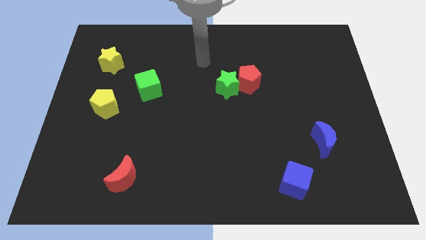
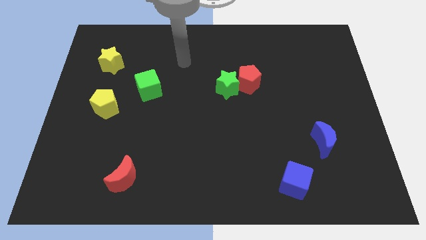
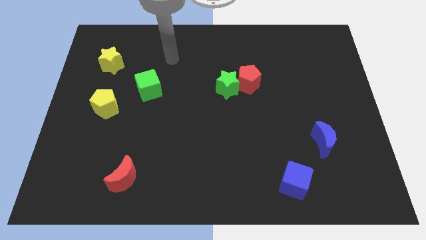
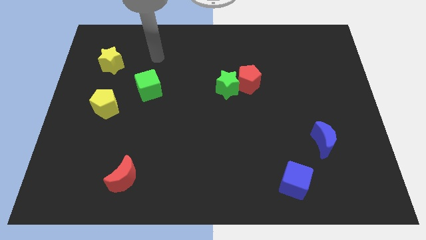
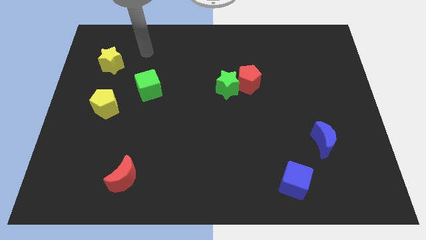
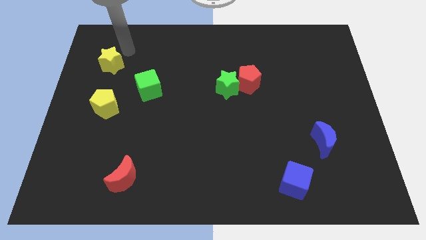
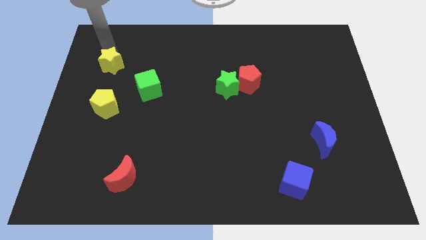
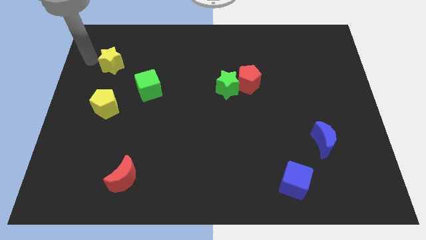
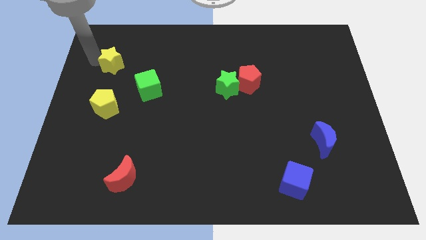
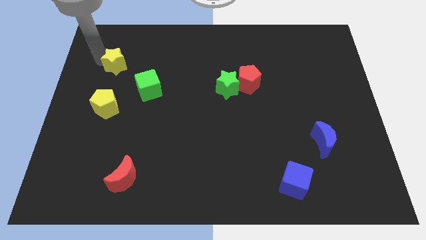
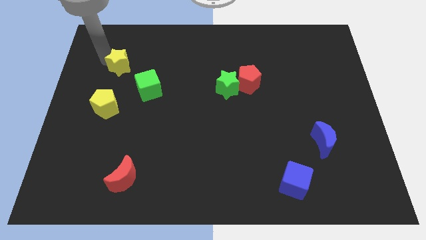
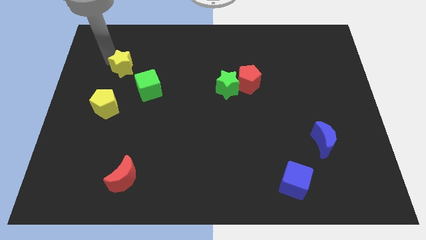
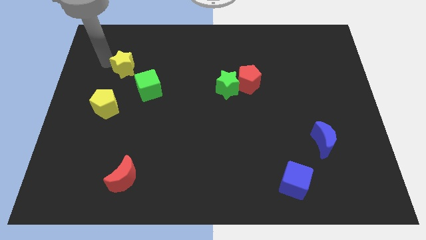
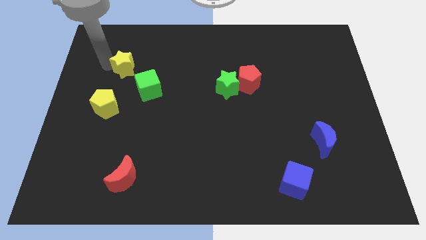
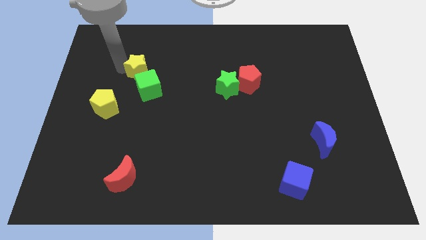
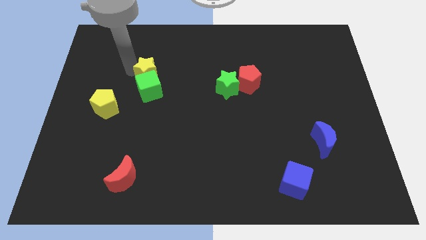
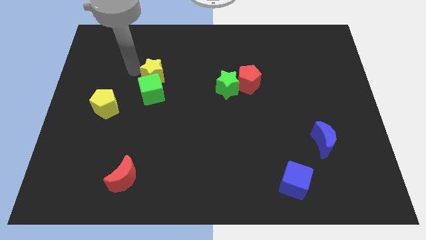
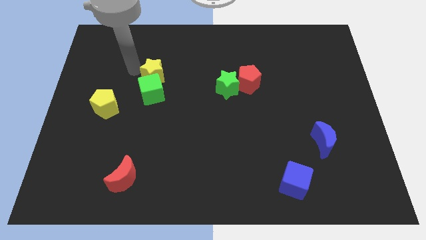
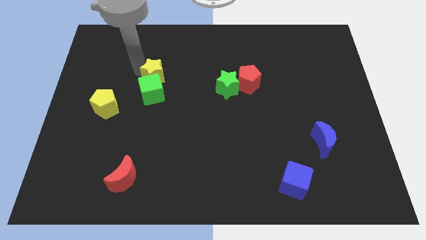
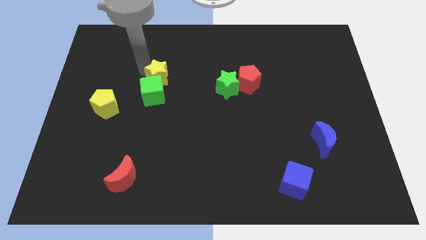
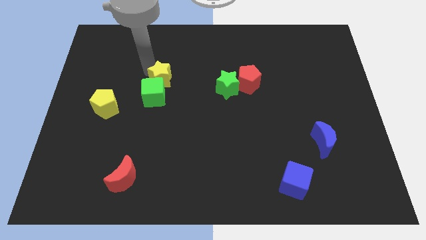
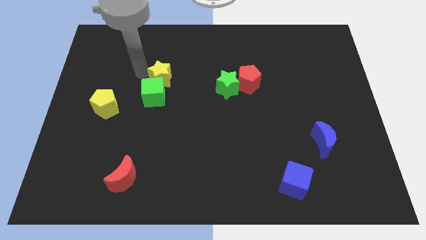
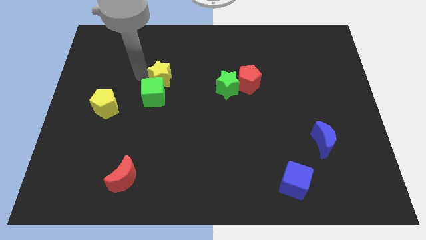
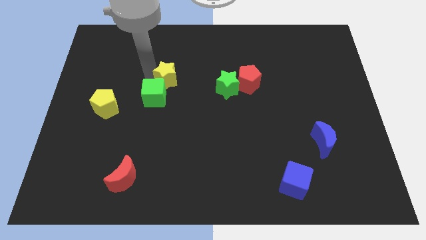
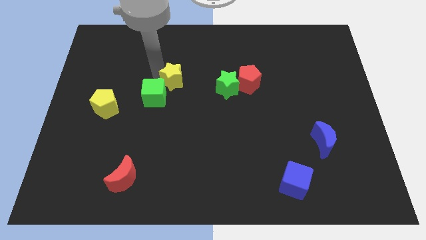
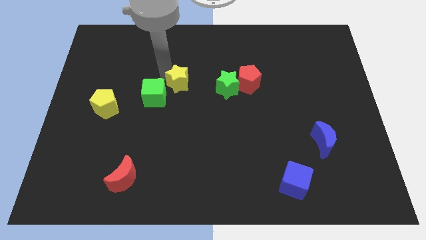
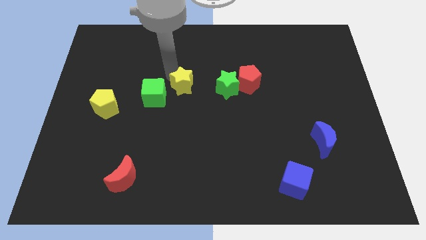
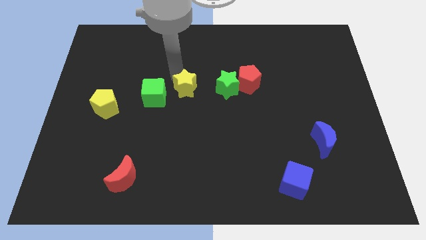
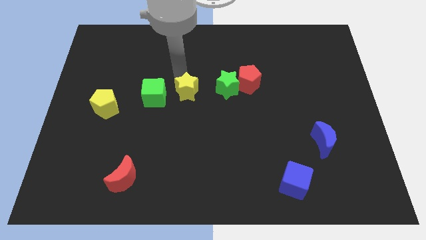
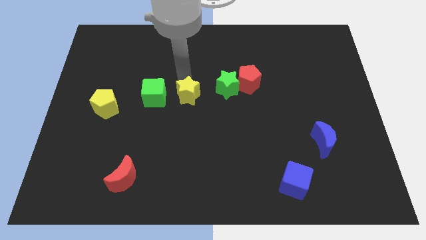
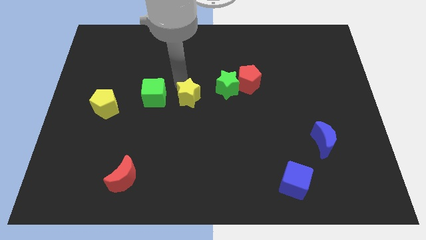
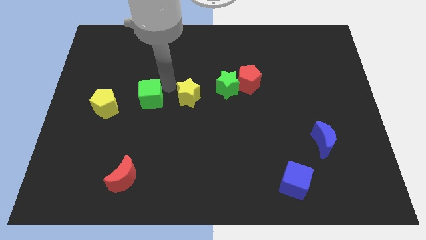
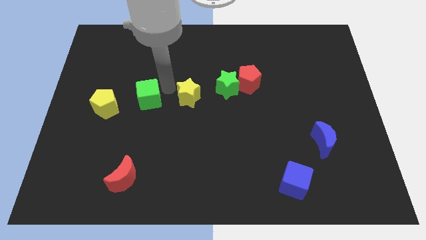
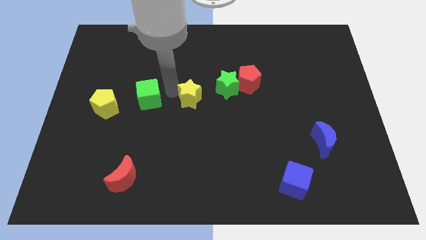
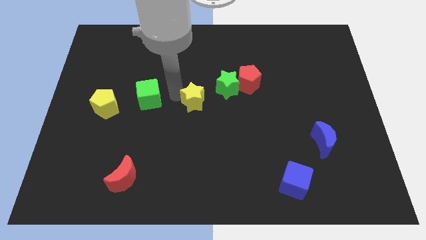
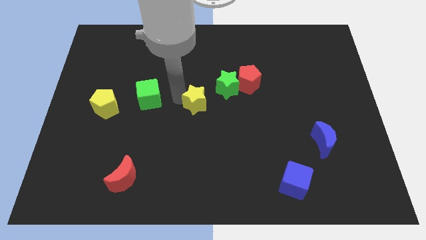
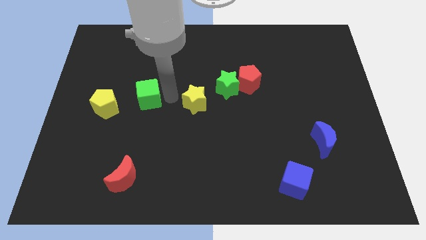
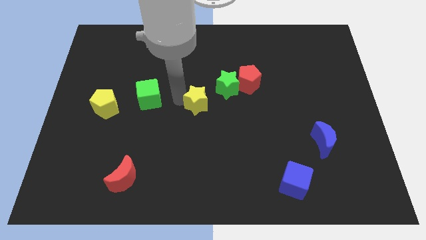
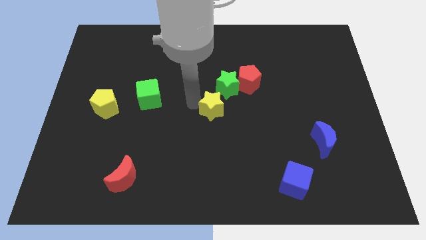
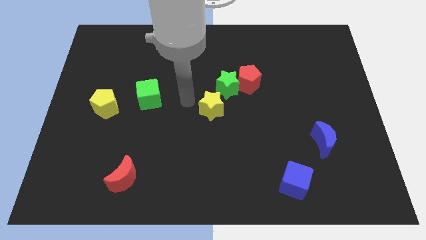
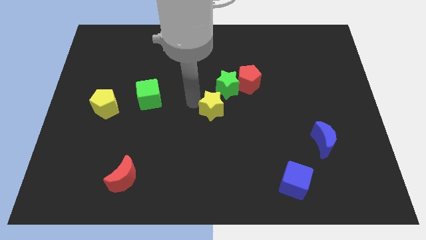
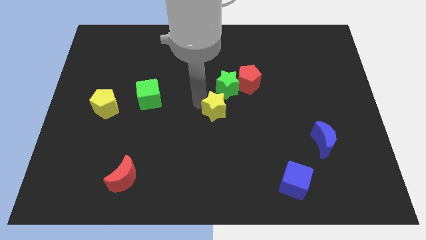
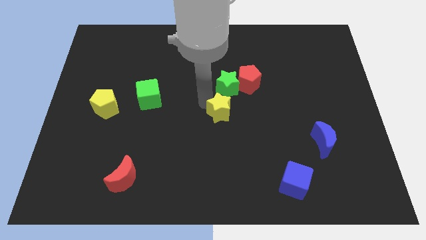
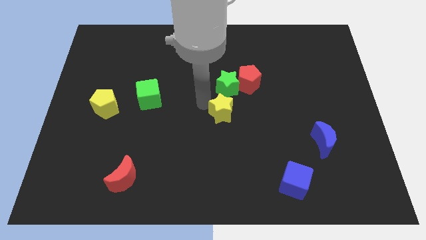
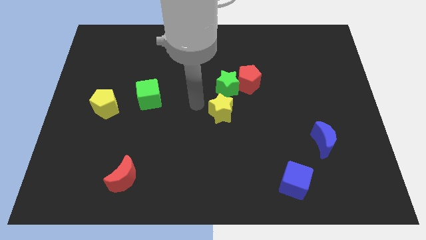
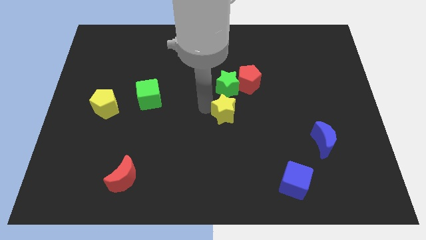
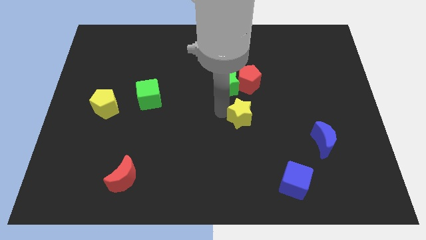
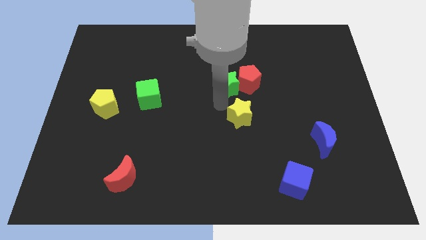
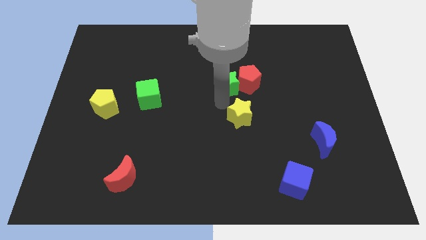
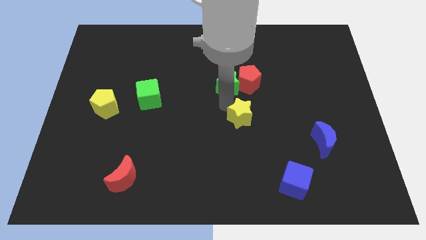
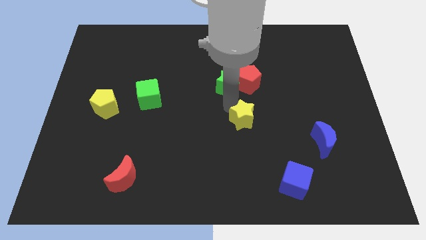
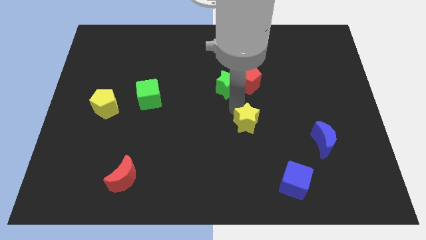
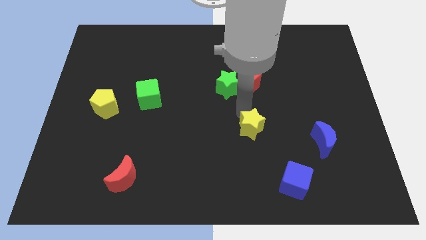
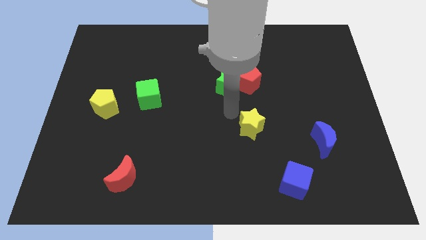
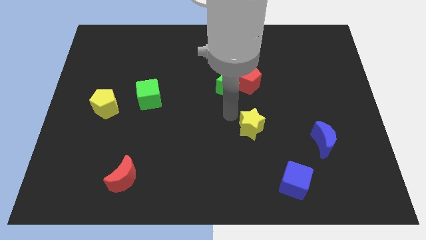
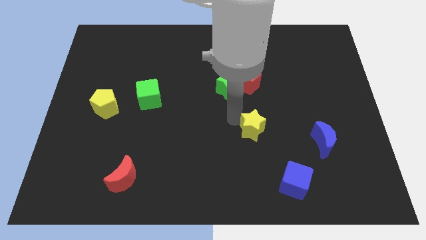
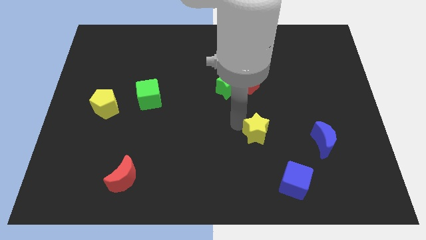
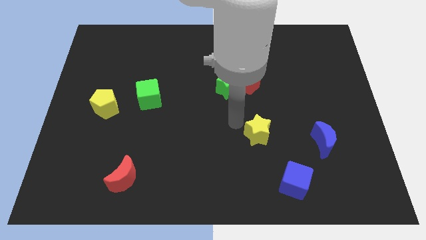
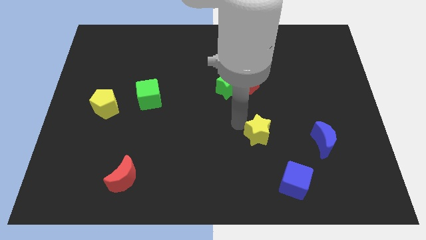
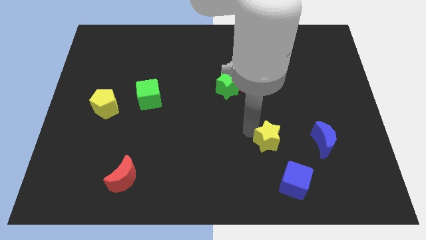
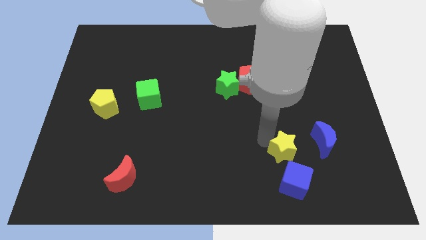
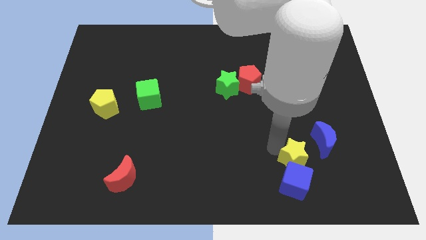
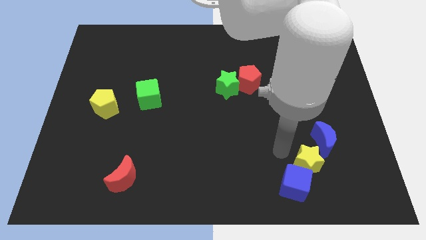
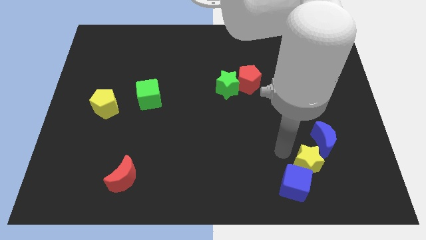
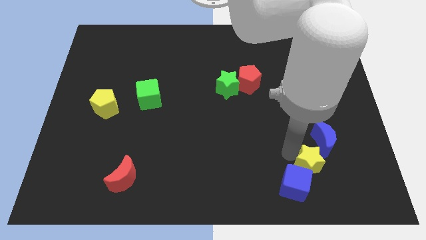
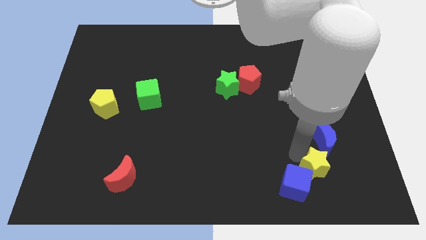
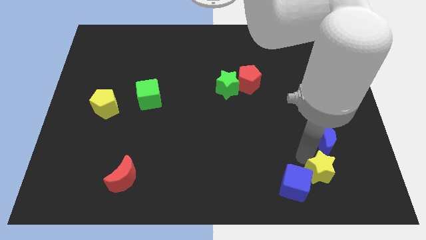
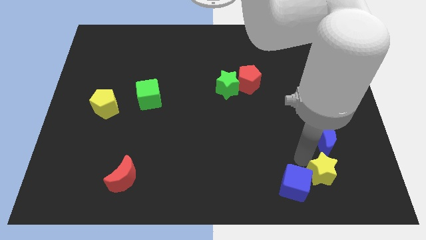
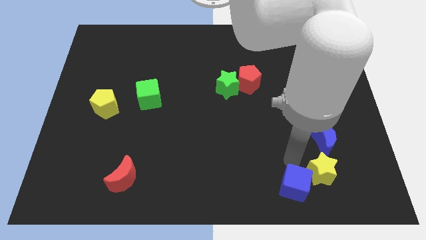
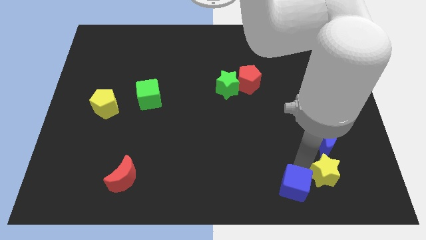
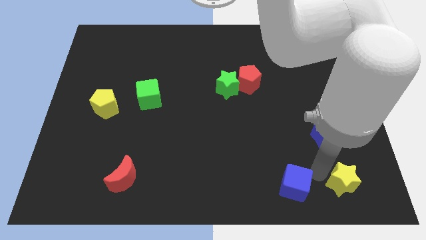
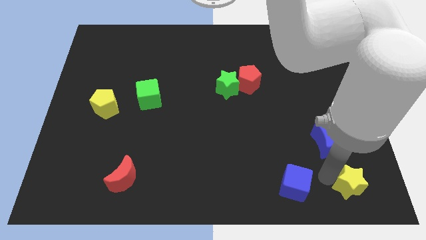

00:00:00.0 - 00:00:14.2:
move the yellow star to the bottom right of the board
